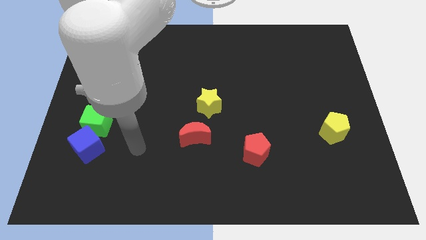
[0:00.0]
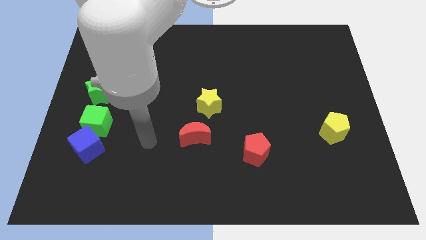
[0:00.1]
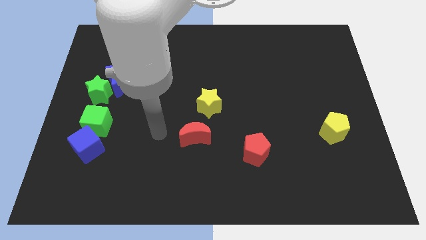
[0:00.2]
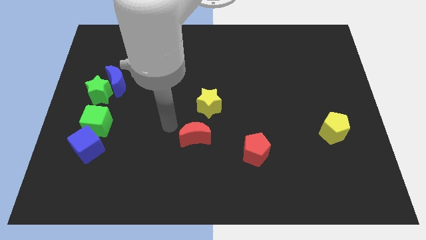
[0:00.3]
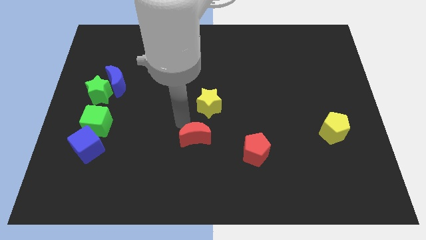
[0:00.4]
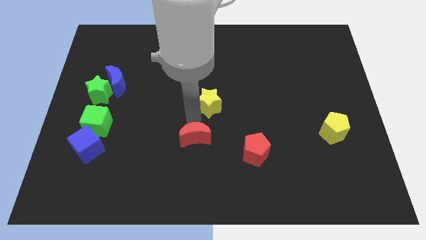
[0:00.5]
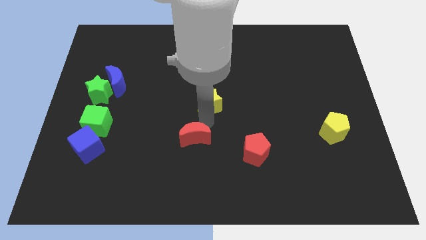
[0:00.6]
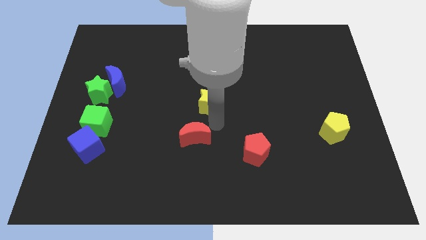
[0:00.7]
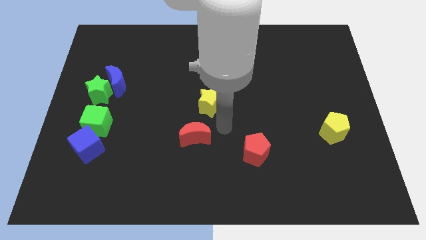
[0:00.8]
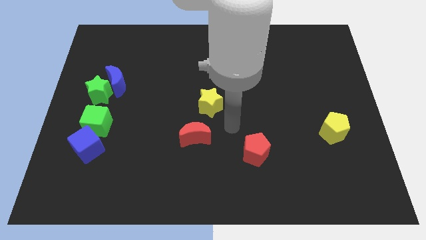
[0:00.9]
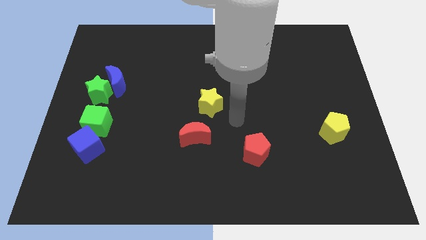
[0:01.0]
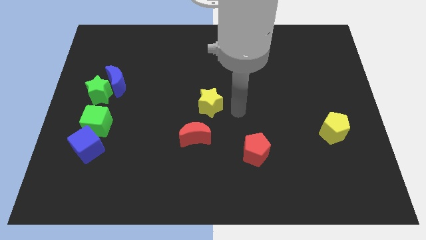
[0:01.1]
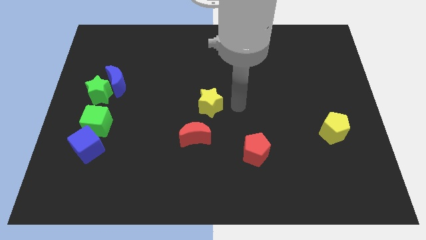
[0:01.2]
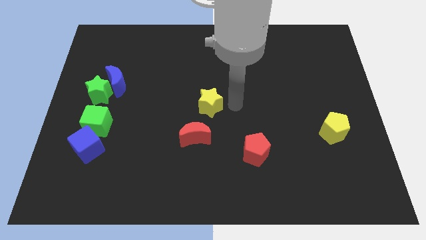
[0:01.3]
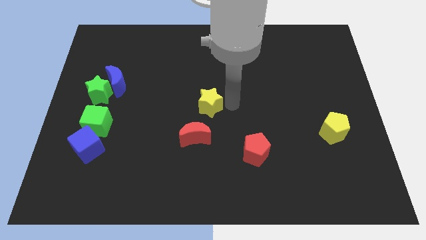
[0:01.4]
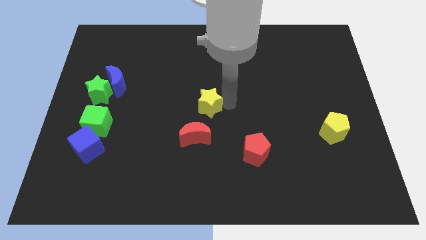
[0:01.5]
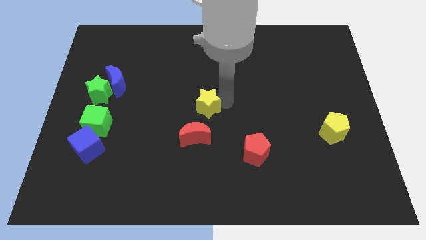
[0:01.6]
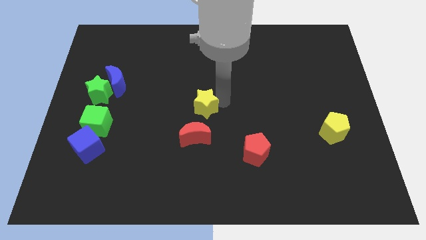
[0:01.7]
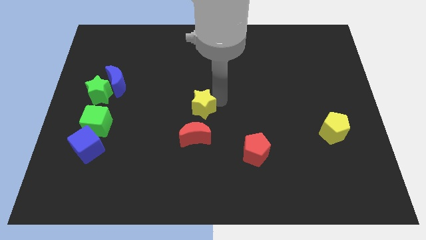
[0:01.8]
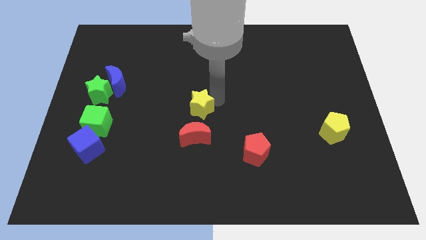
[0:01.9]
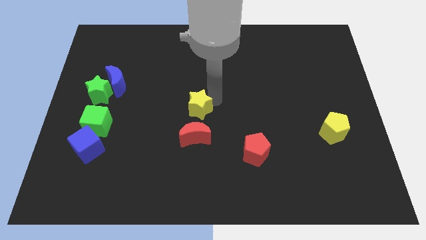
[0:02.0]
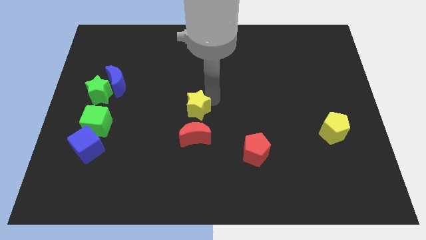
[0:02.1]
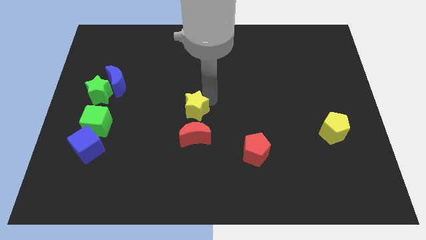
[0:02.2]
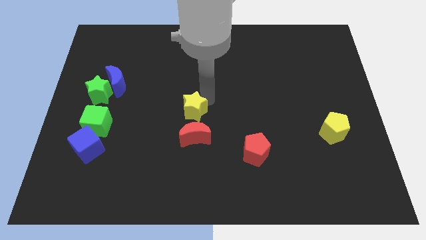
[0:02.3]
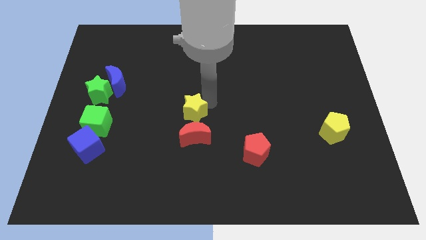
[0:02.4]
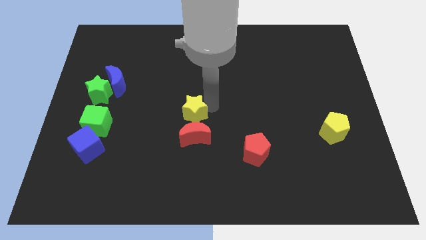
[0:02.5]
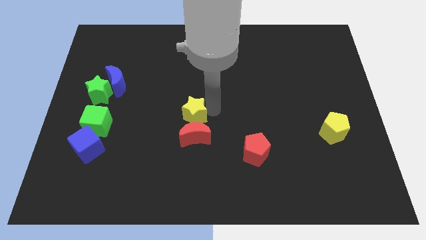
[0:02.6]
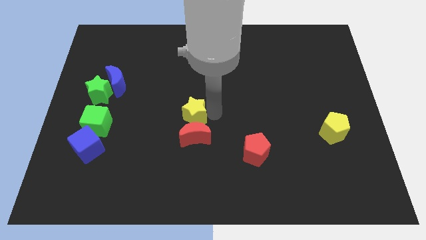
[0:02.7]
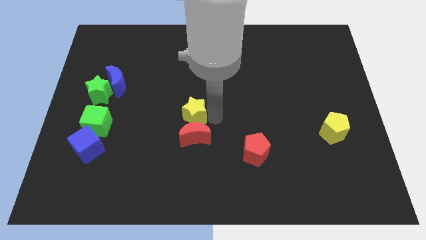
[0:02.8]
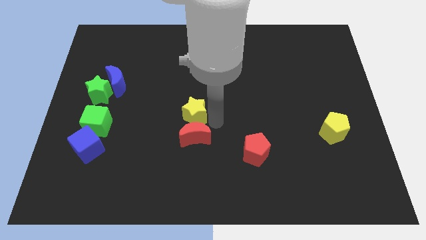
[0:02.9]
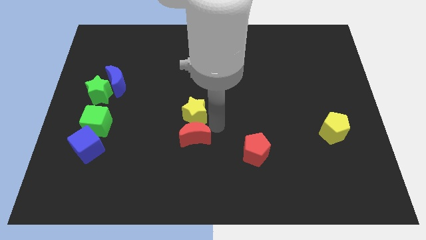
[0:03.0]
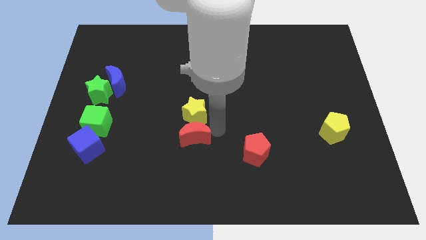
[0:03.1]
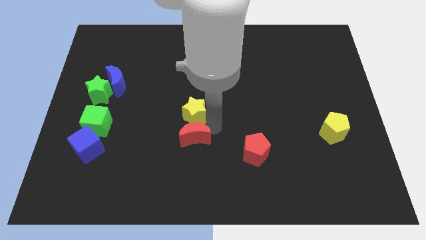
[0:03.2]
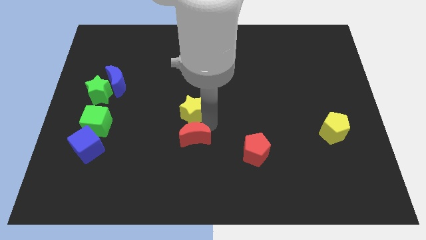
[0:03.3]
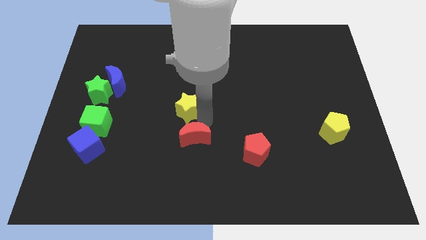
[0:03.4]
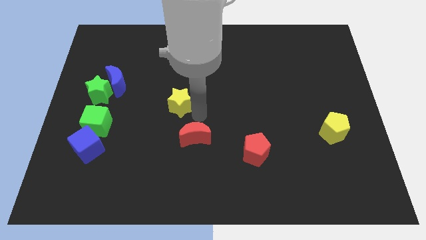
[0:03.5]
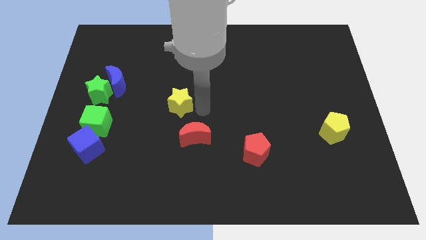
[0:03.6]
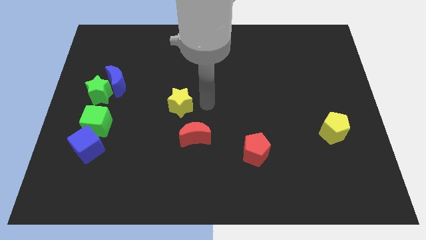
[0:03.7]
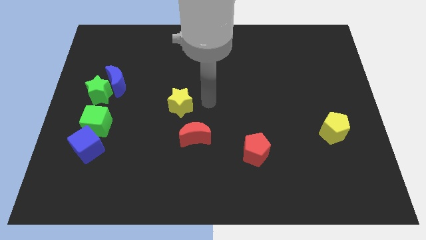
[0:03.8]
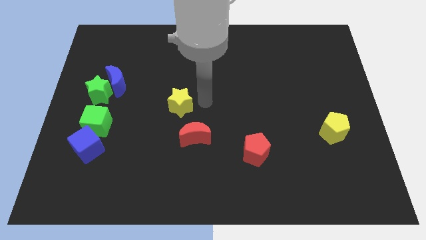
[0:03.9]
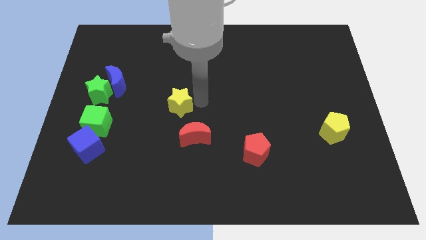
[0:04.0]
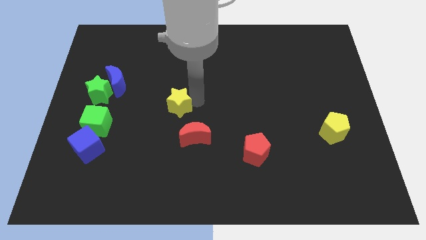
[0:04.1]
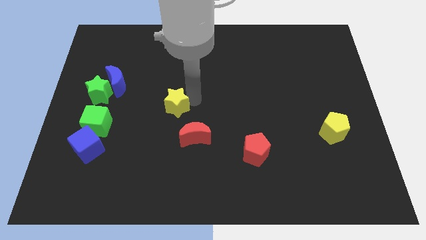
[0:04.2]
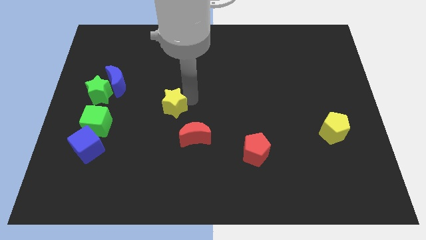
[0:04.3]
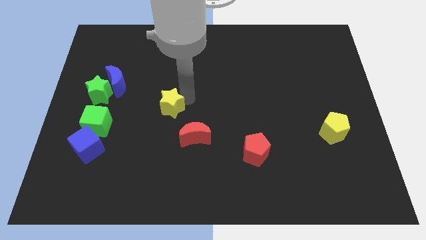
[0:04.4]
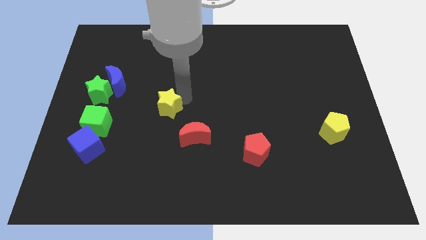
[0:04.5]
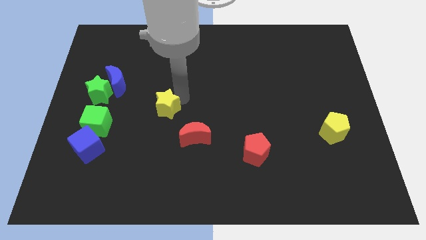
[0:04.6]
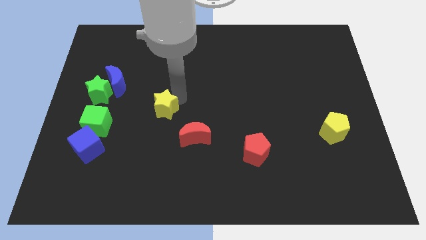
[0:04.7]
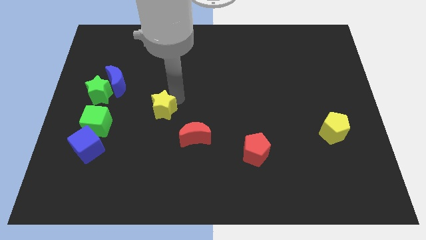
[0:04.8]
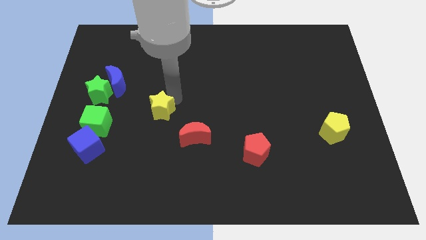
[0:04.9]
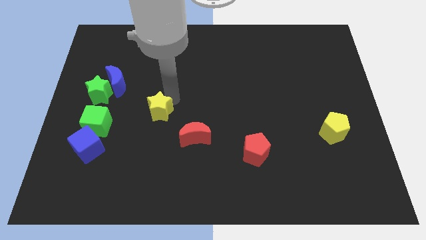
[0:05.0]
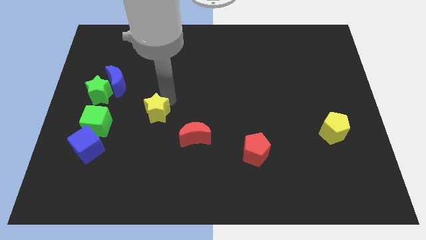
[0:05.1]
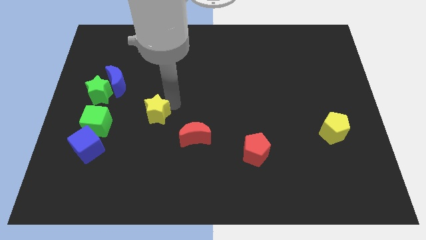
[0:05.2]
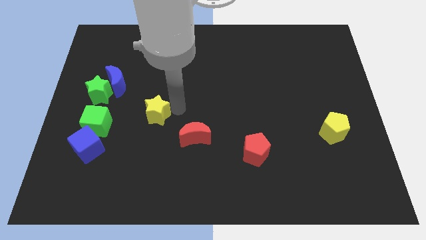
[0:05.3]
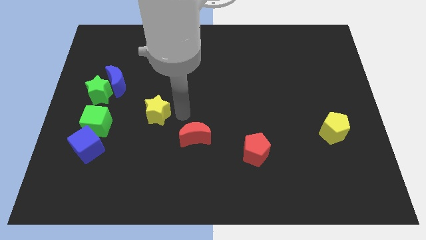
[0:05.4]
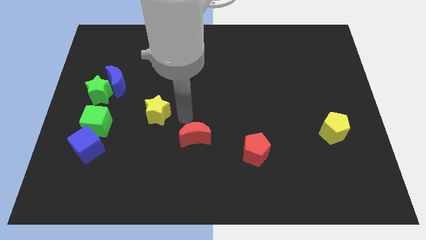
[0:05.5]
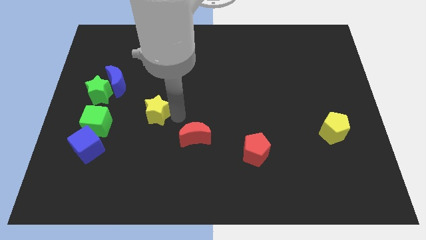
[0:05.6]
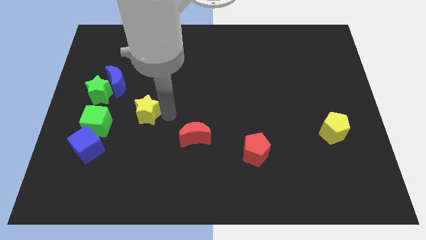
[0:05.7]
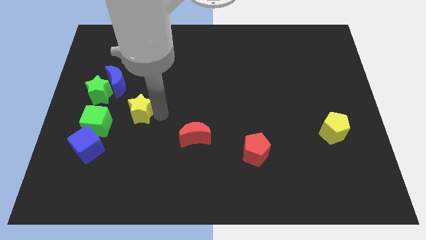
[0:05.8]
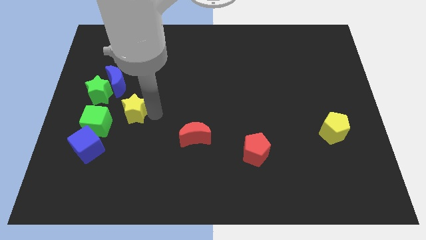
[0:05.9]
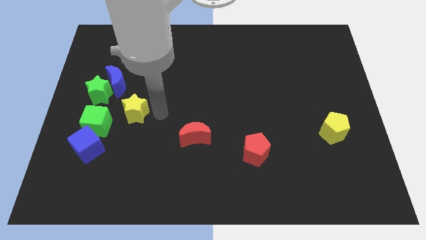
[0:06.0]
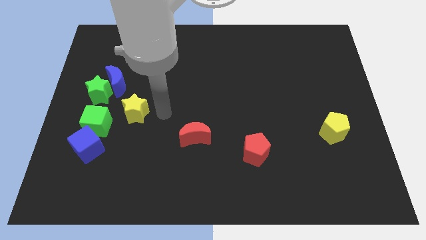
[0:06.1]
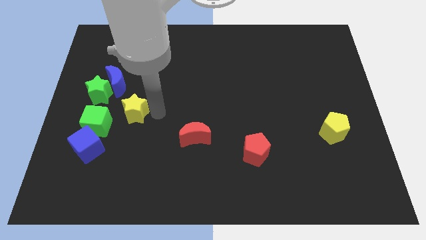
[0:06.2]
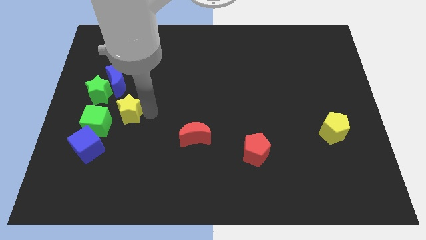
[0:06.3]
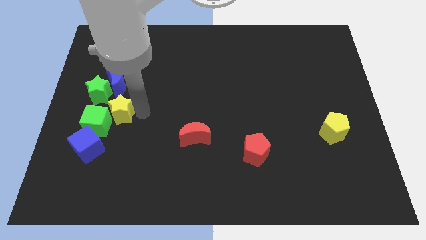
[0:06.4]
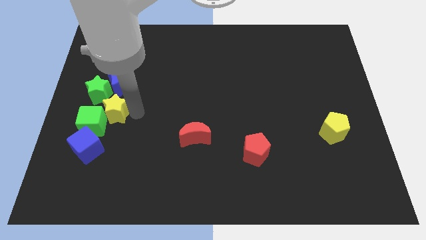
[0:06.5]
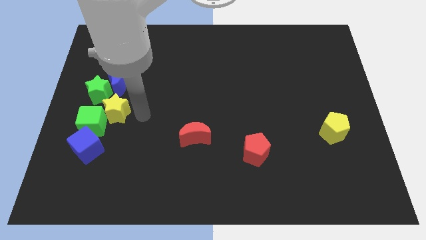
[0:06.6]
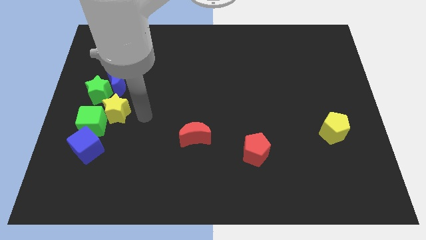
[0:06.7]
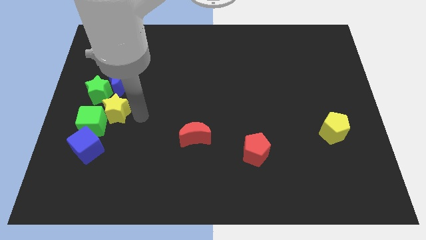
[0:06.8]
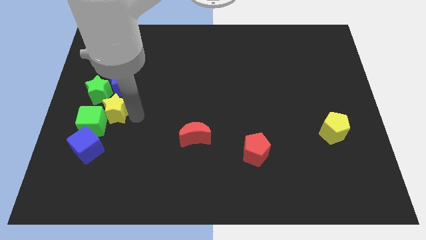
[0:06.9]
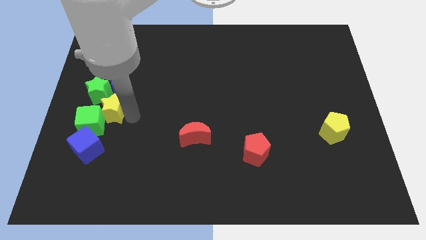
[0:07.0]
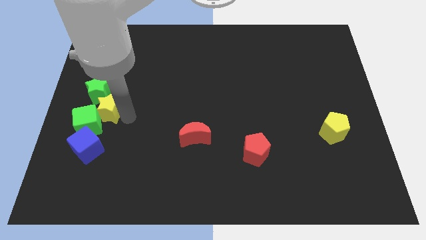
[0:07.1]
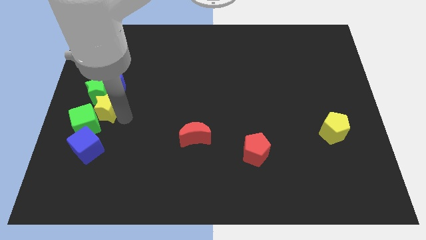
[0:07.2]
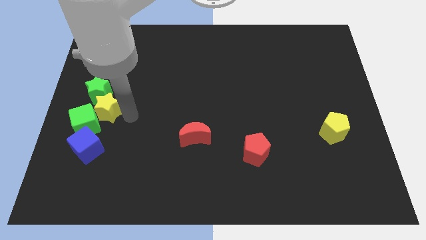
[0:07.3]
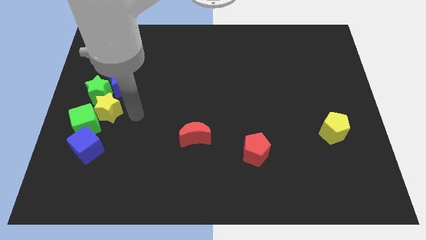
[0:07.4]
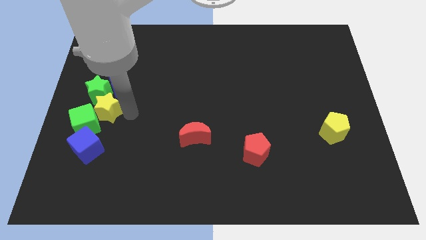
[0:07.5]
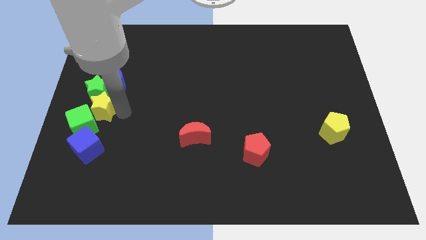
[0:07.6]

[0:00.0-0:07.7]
move the yellow star to the center left
